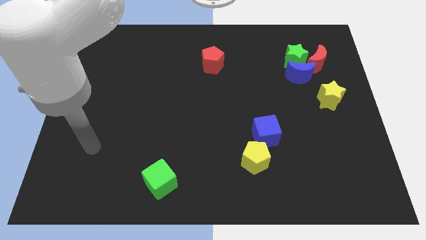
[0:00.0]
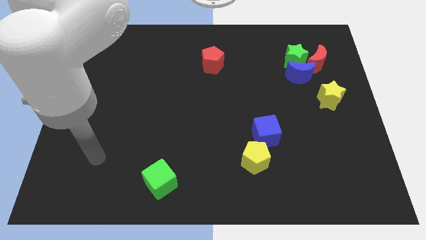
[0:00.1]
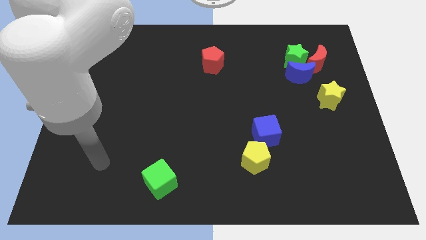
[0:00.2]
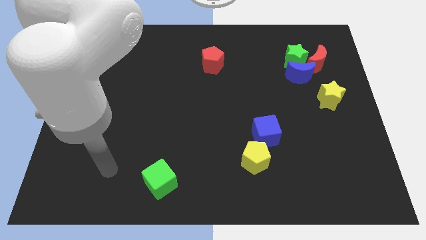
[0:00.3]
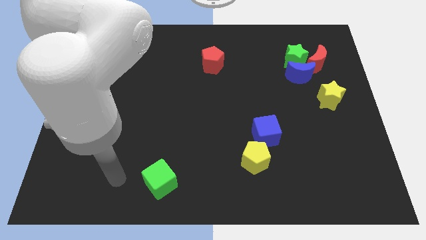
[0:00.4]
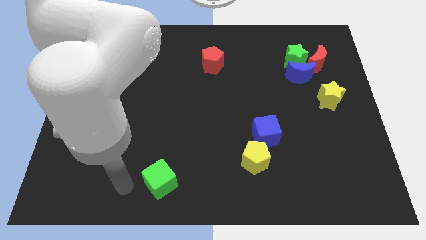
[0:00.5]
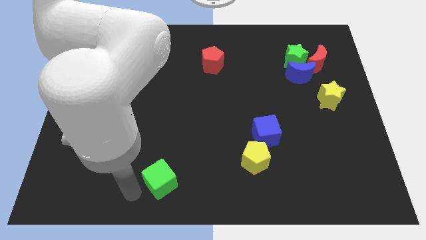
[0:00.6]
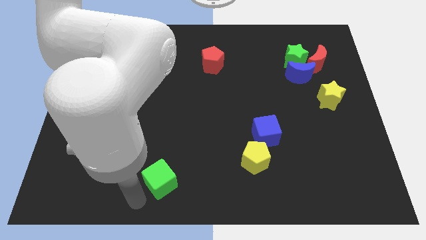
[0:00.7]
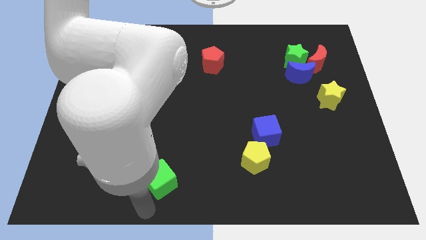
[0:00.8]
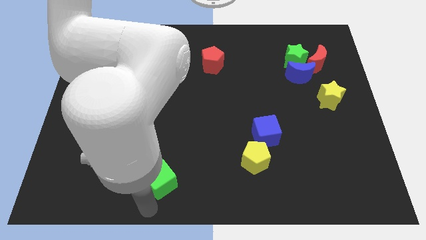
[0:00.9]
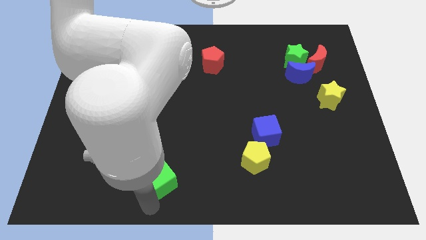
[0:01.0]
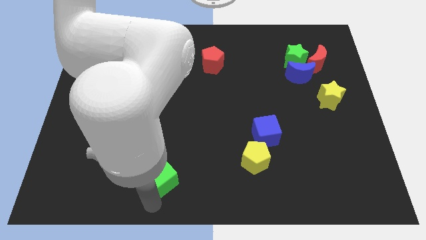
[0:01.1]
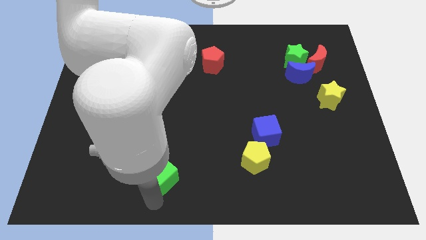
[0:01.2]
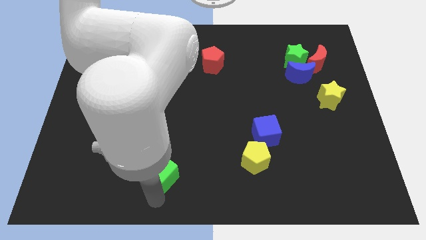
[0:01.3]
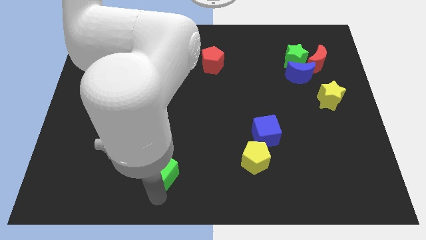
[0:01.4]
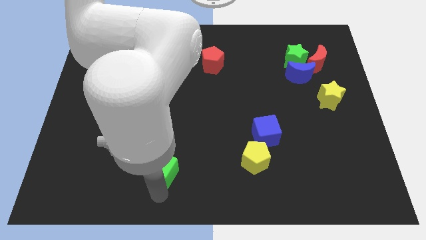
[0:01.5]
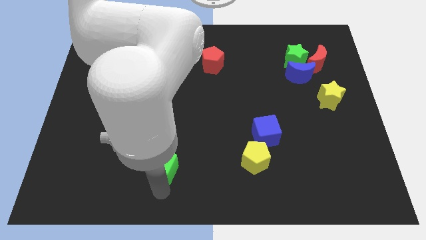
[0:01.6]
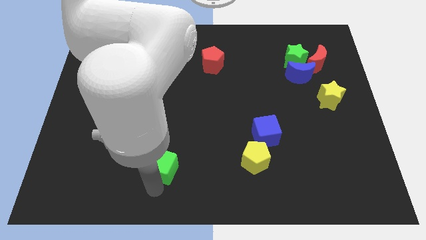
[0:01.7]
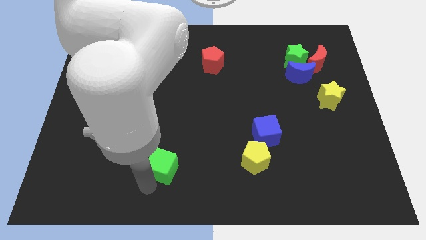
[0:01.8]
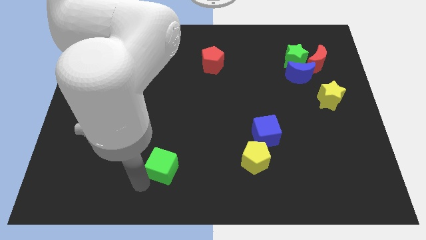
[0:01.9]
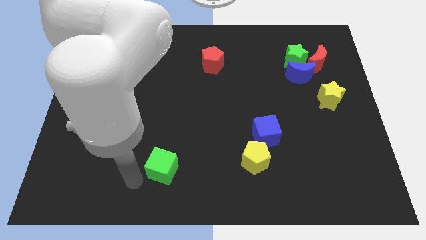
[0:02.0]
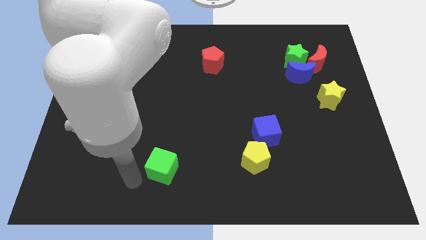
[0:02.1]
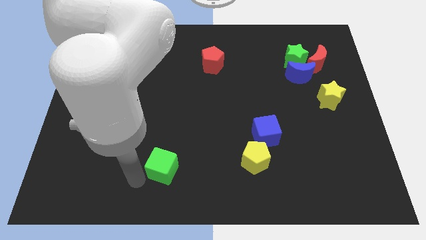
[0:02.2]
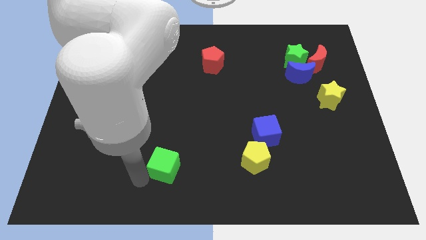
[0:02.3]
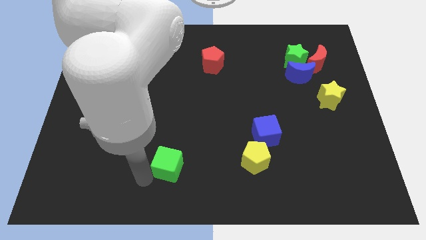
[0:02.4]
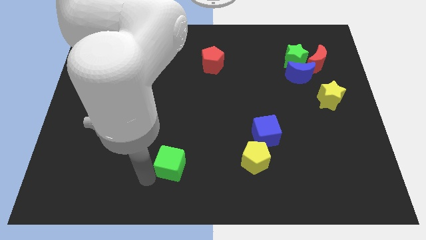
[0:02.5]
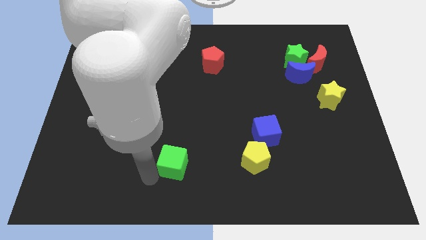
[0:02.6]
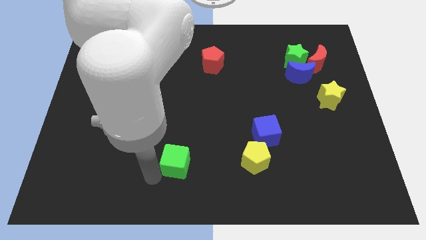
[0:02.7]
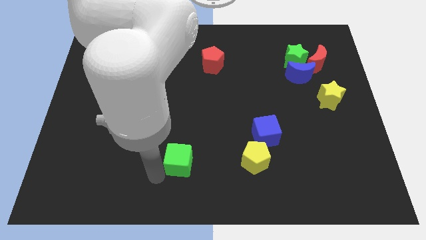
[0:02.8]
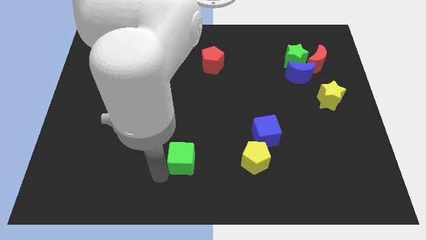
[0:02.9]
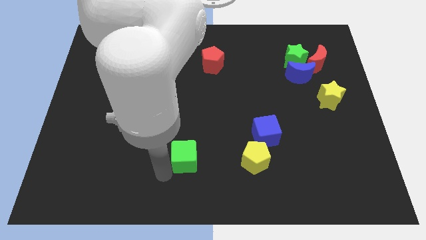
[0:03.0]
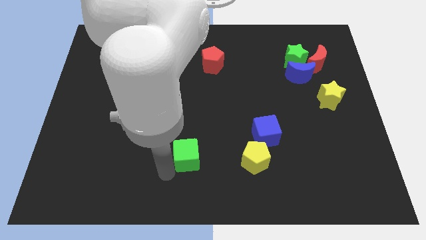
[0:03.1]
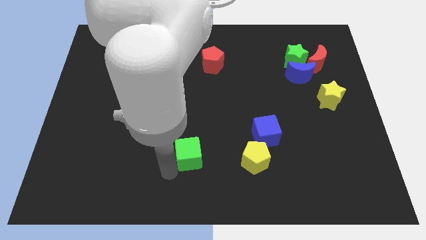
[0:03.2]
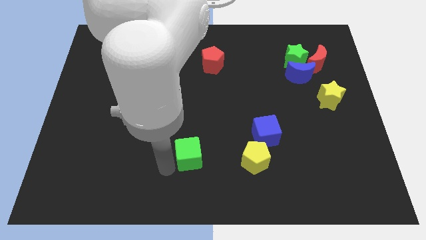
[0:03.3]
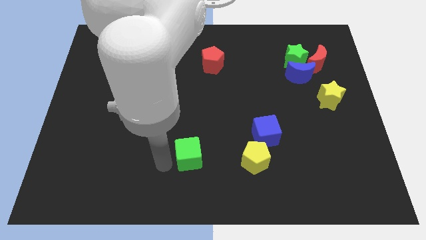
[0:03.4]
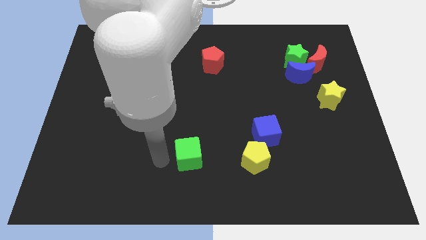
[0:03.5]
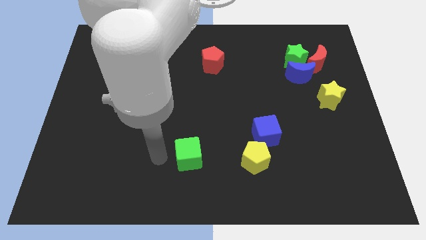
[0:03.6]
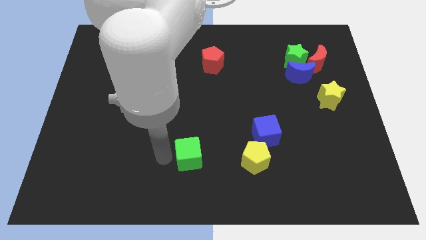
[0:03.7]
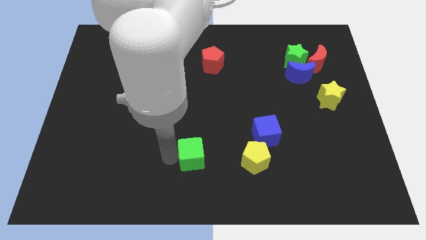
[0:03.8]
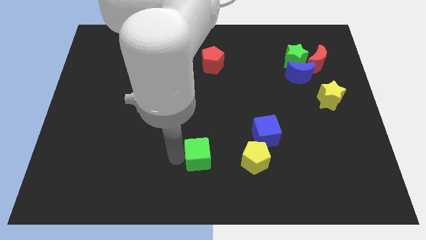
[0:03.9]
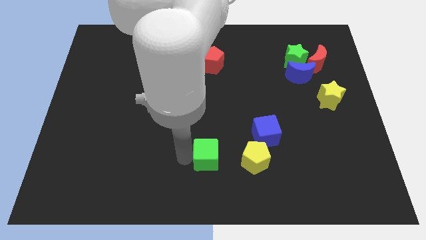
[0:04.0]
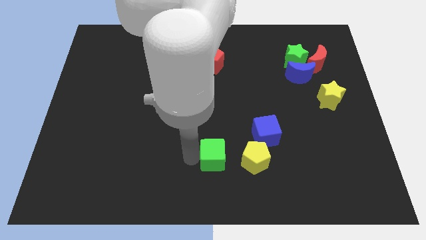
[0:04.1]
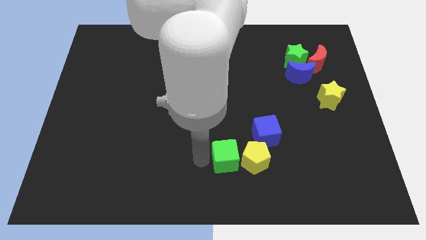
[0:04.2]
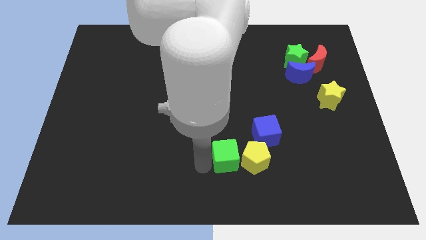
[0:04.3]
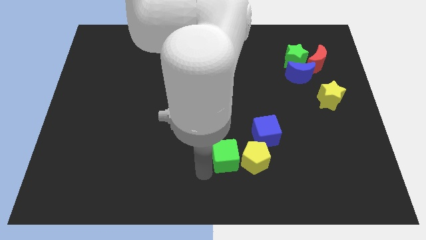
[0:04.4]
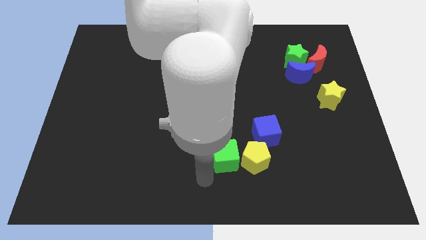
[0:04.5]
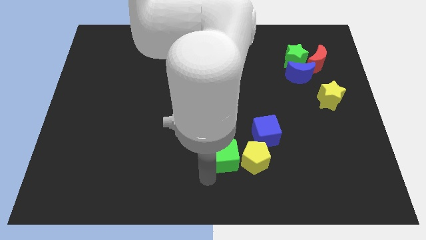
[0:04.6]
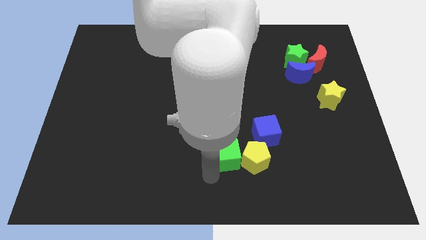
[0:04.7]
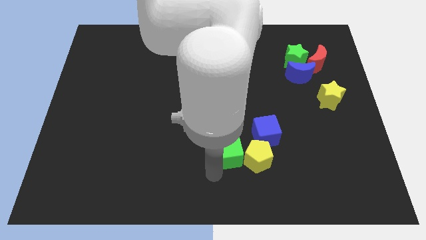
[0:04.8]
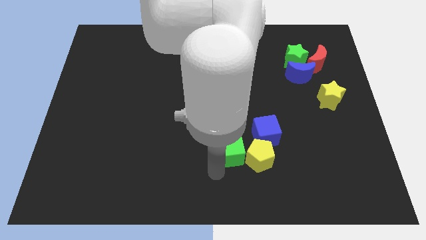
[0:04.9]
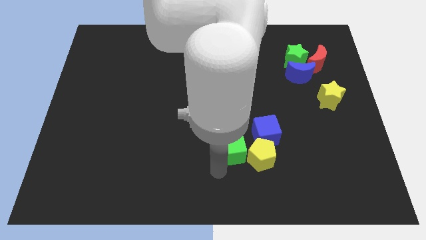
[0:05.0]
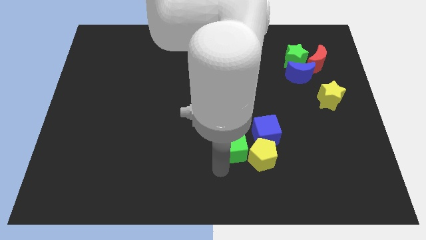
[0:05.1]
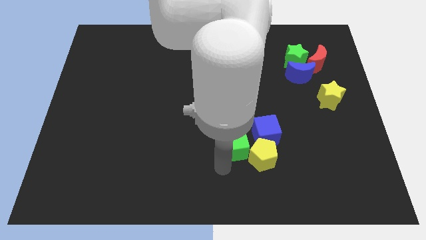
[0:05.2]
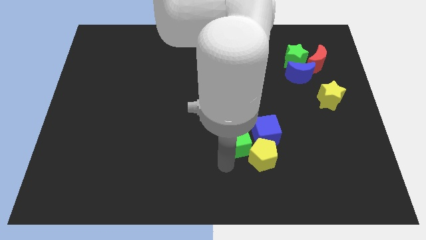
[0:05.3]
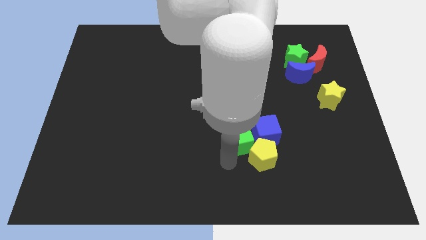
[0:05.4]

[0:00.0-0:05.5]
push the green cube towards the blue cube

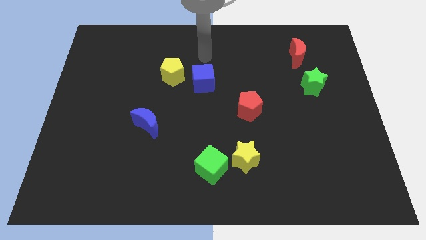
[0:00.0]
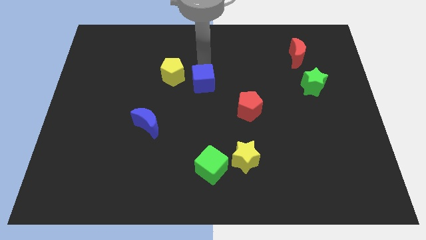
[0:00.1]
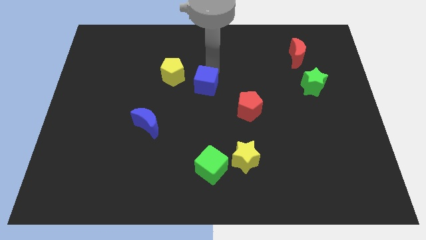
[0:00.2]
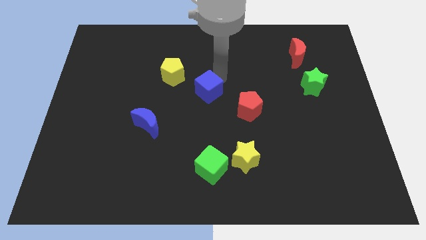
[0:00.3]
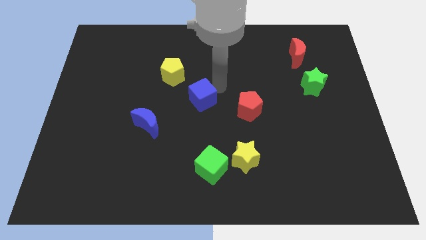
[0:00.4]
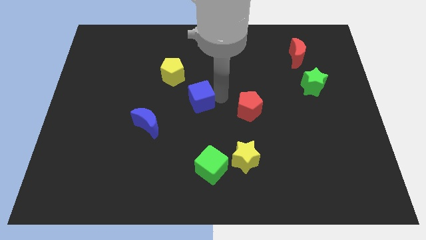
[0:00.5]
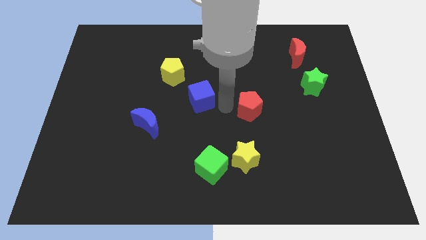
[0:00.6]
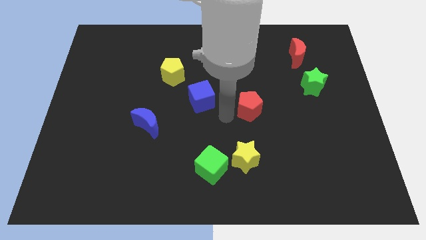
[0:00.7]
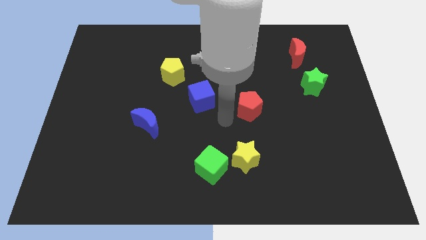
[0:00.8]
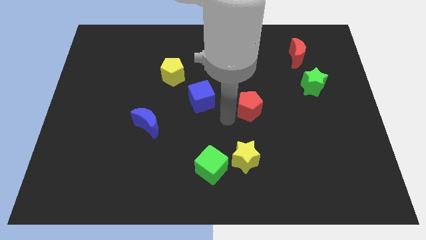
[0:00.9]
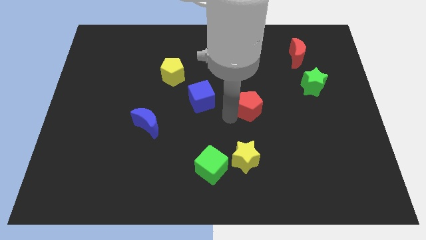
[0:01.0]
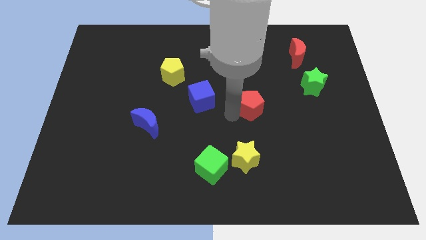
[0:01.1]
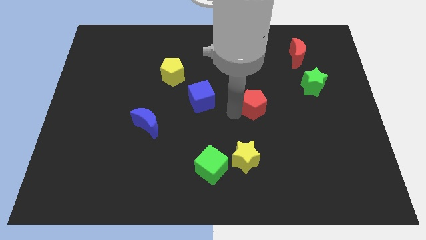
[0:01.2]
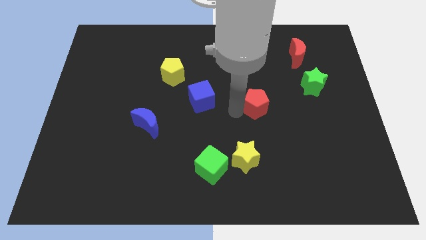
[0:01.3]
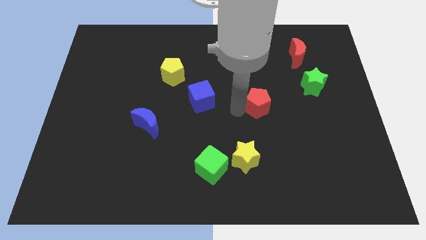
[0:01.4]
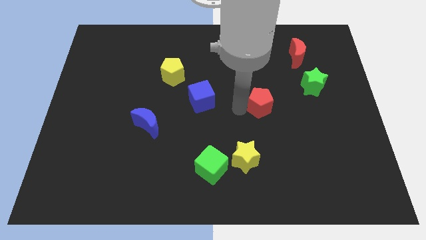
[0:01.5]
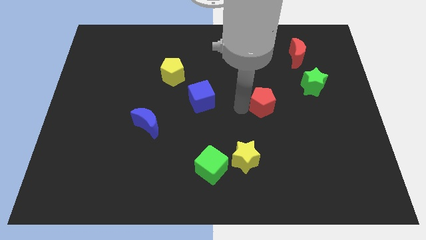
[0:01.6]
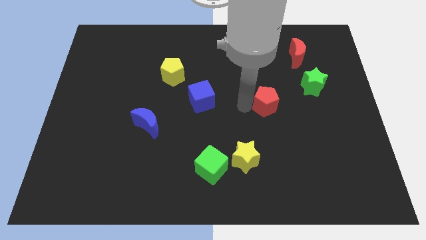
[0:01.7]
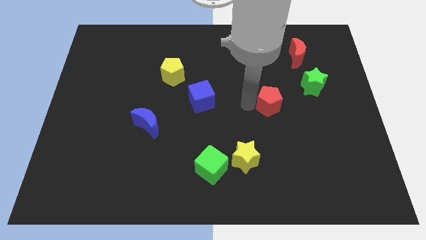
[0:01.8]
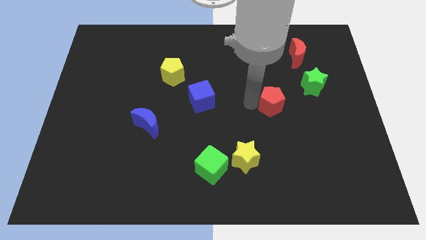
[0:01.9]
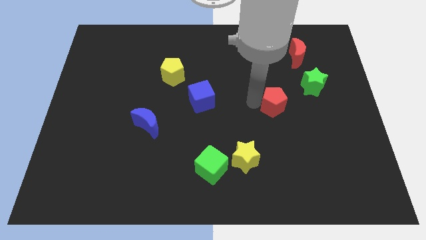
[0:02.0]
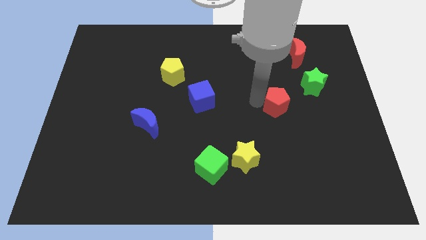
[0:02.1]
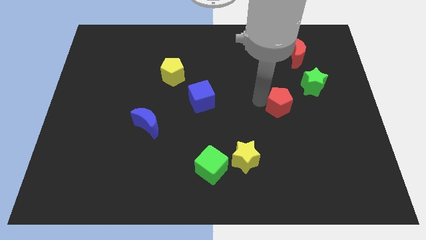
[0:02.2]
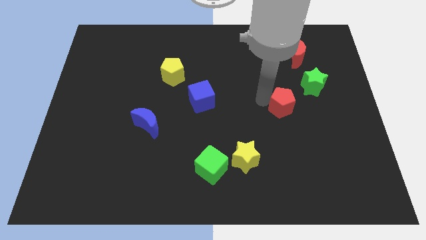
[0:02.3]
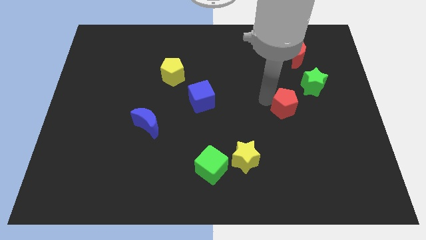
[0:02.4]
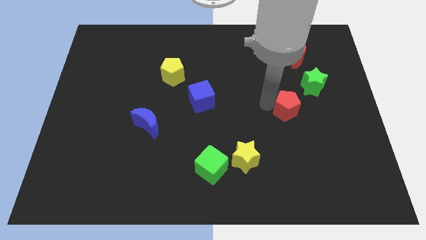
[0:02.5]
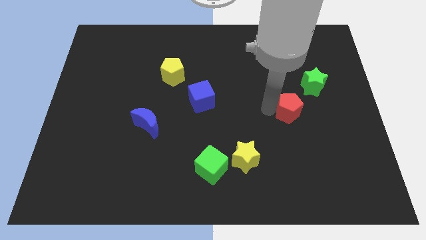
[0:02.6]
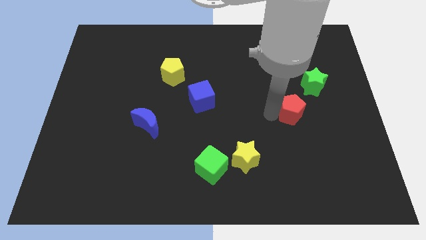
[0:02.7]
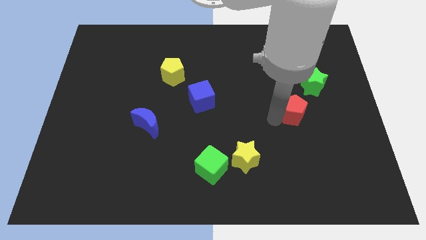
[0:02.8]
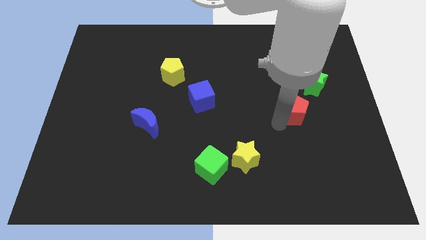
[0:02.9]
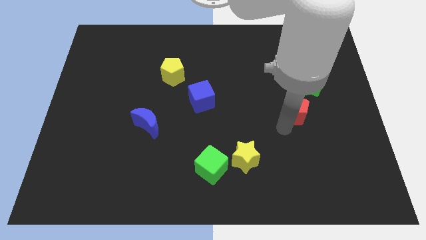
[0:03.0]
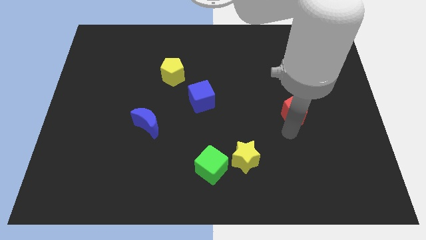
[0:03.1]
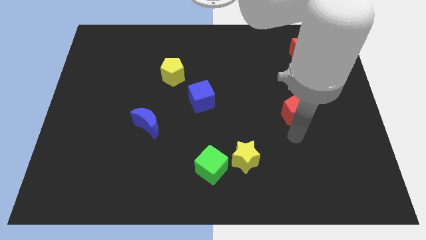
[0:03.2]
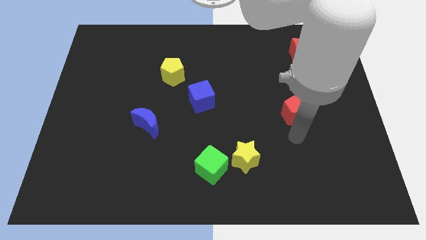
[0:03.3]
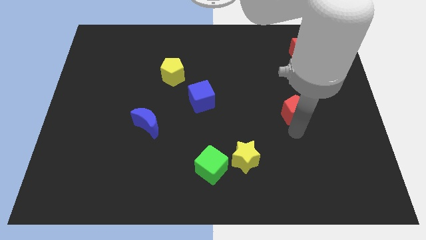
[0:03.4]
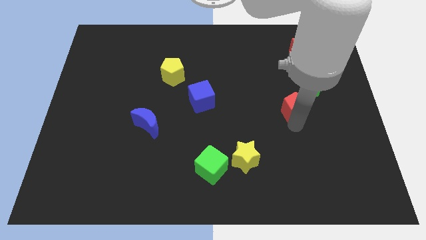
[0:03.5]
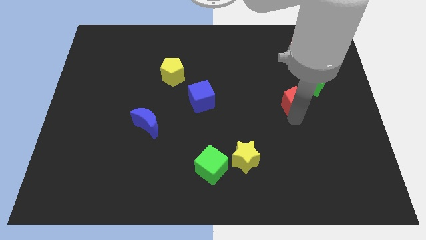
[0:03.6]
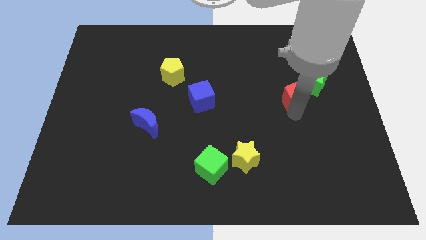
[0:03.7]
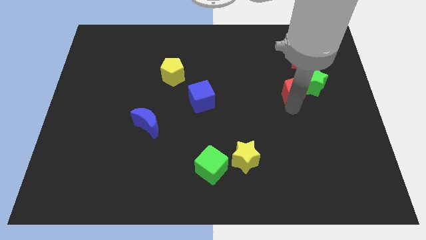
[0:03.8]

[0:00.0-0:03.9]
push the red pentagon close to the green star
